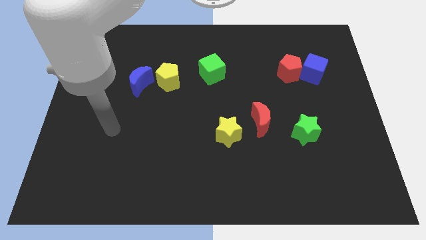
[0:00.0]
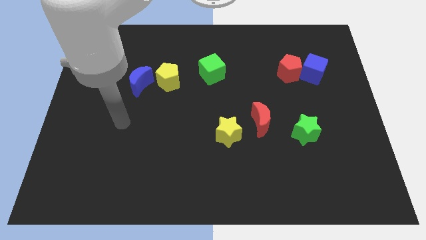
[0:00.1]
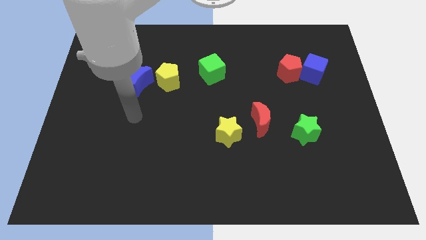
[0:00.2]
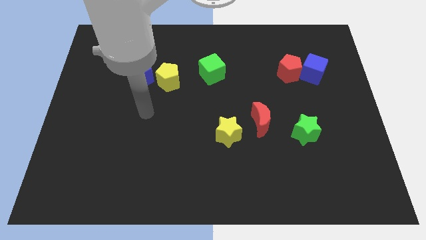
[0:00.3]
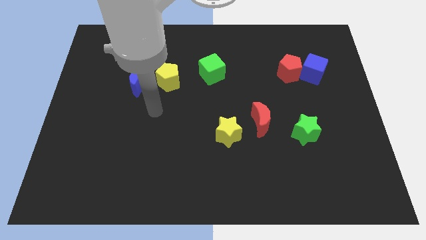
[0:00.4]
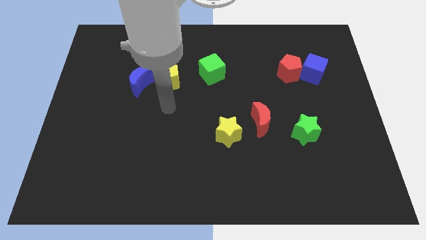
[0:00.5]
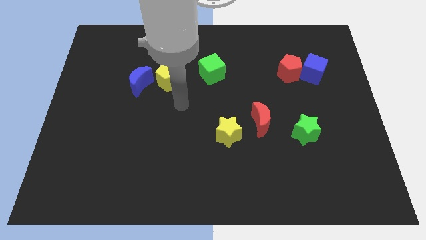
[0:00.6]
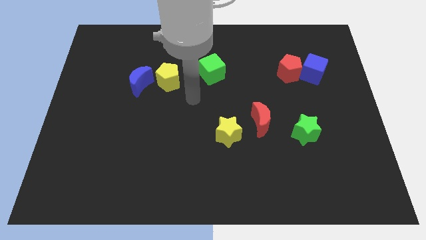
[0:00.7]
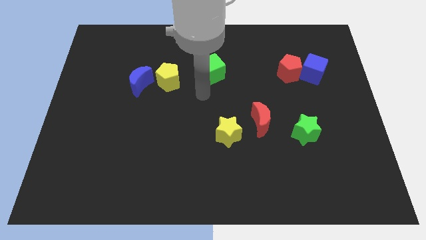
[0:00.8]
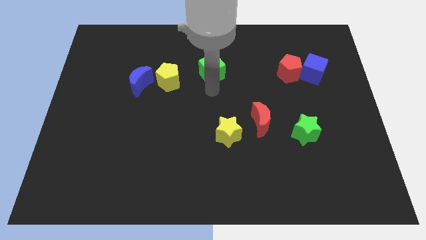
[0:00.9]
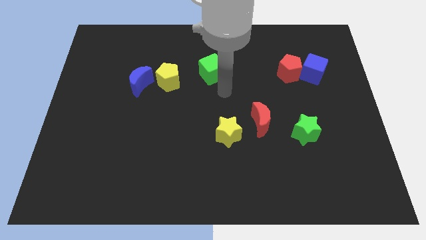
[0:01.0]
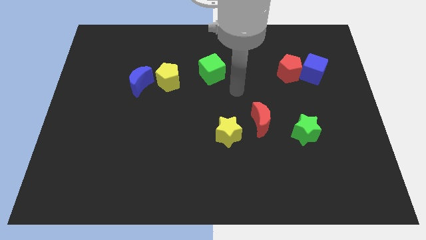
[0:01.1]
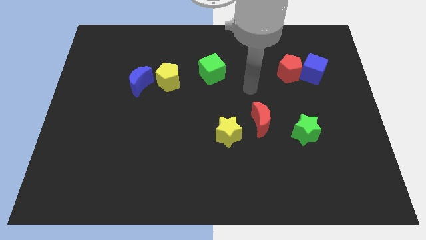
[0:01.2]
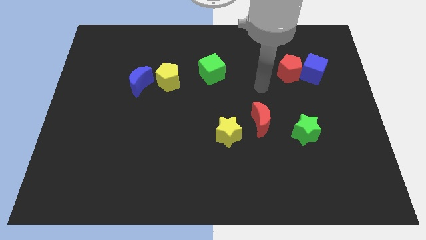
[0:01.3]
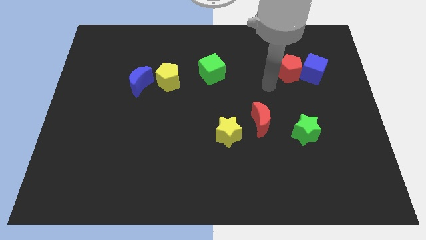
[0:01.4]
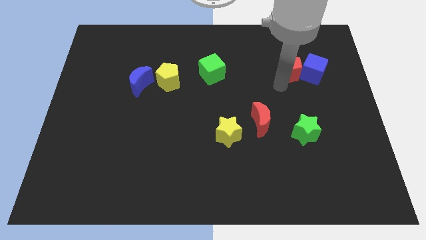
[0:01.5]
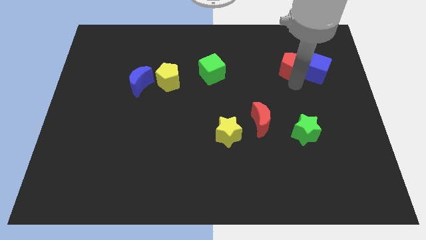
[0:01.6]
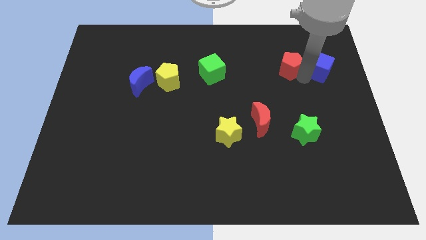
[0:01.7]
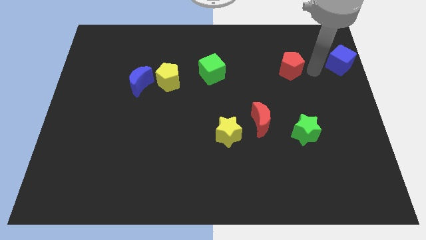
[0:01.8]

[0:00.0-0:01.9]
pull the red pentagon apart from the blue cube

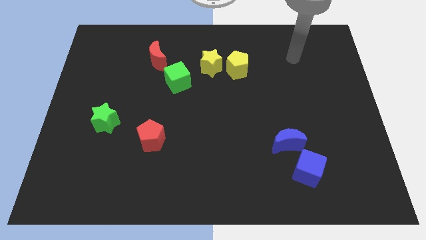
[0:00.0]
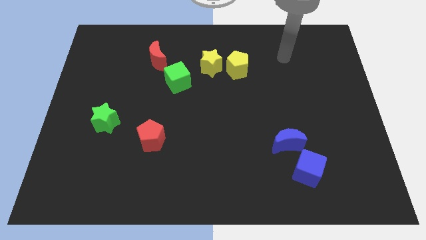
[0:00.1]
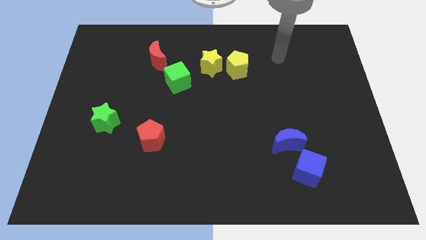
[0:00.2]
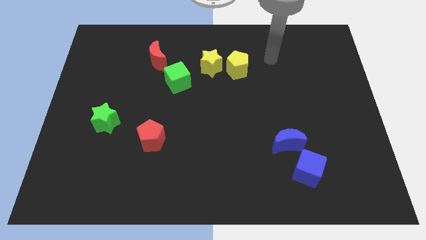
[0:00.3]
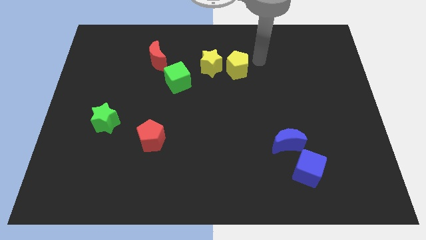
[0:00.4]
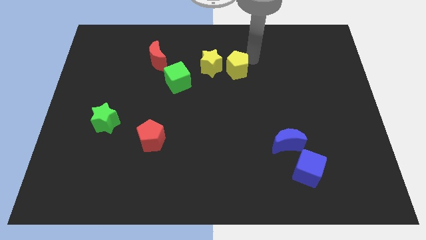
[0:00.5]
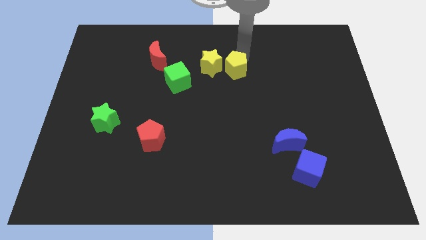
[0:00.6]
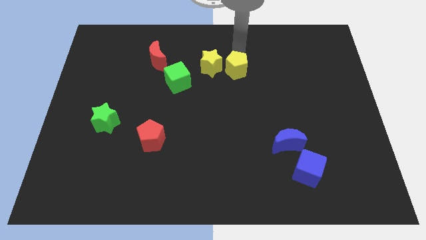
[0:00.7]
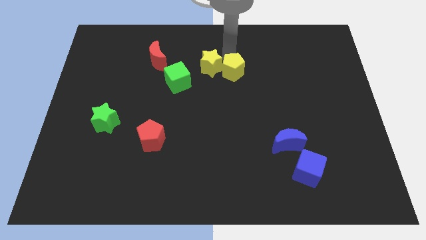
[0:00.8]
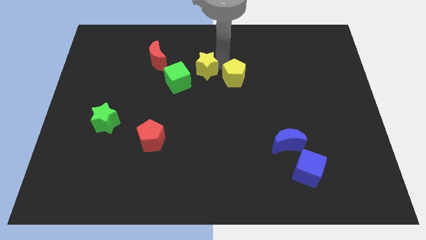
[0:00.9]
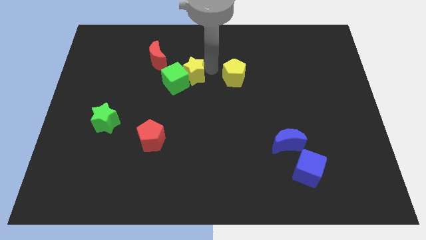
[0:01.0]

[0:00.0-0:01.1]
move the yellow pentagon away from the yellow star

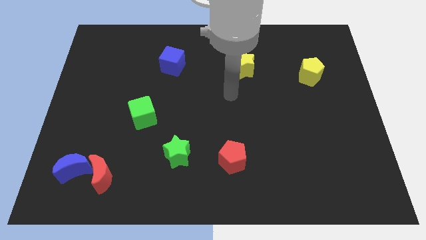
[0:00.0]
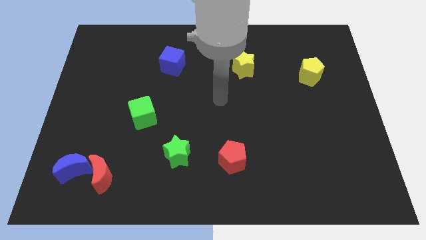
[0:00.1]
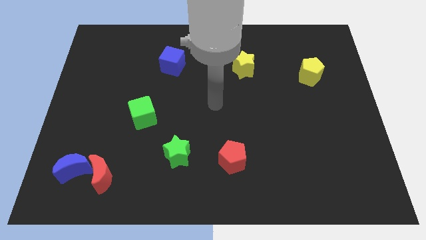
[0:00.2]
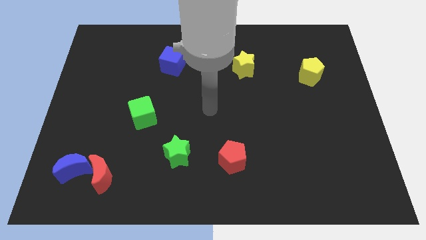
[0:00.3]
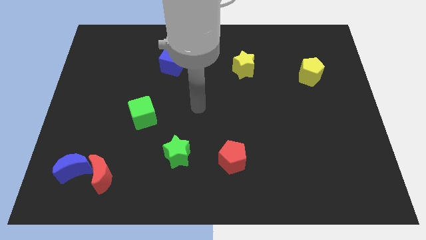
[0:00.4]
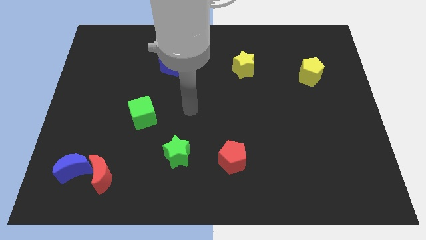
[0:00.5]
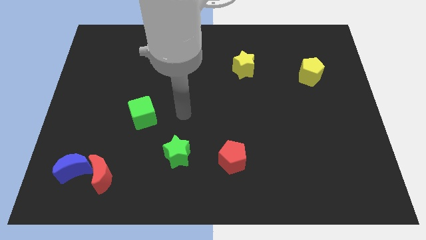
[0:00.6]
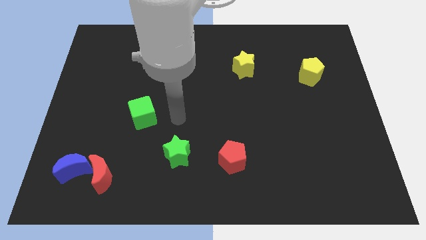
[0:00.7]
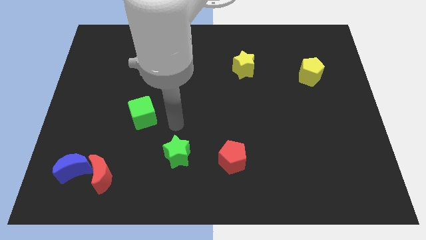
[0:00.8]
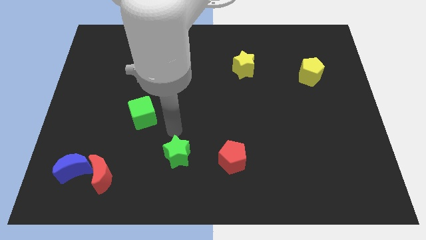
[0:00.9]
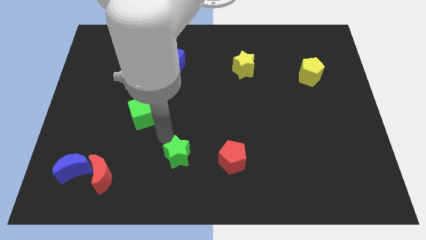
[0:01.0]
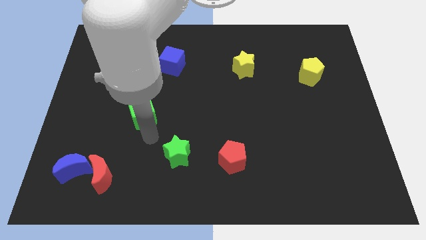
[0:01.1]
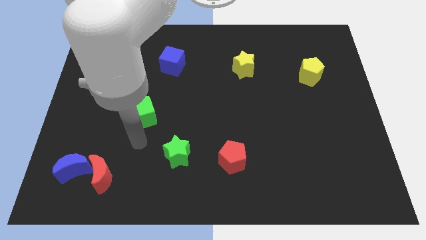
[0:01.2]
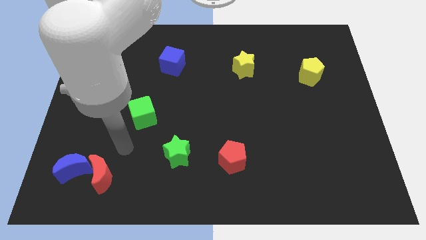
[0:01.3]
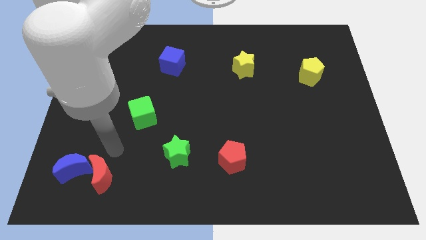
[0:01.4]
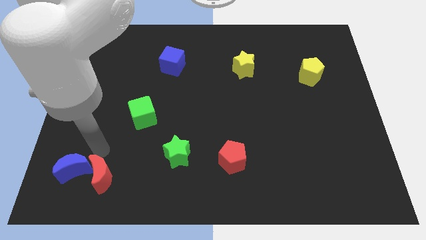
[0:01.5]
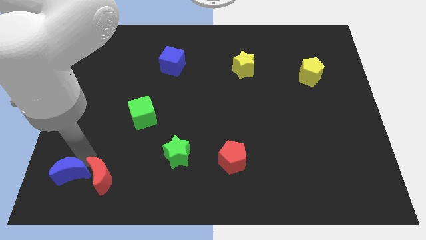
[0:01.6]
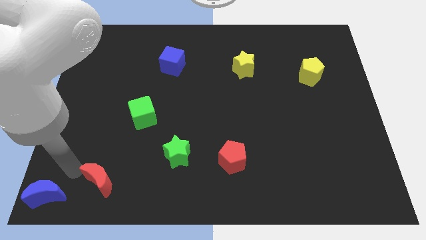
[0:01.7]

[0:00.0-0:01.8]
separate the red moon from the blue moon

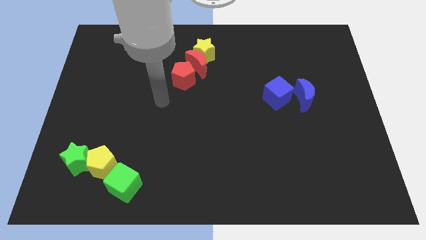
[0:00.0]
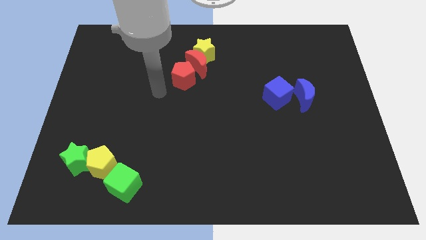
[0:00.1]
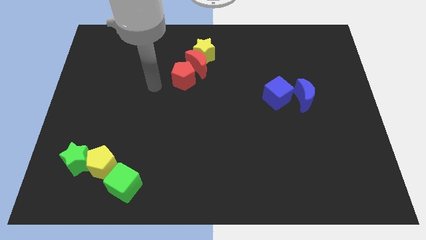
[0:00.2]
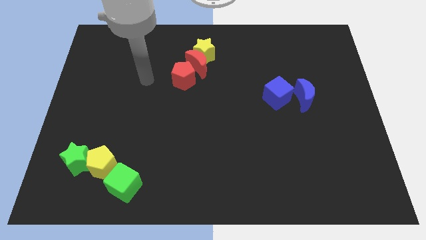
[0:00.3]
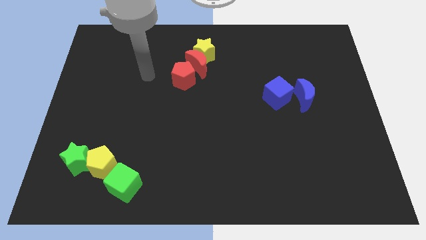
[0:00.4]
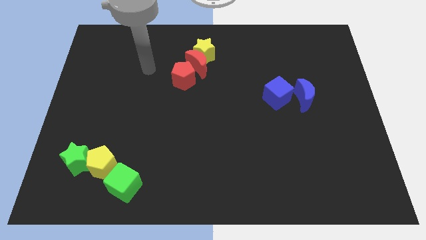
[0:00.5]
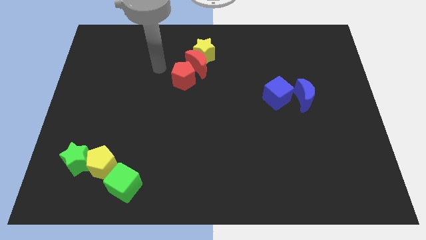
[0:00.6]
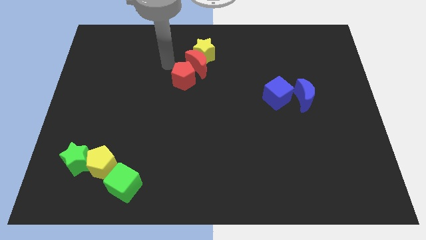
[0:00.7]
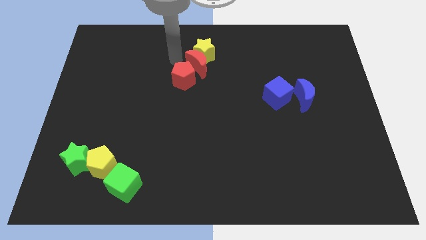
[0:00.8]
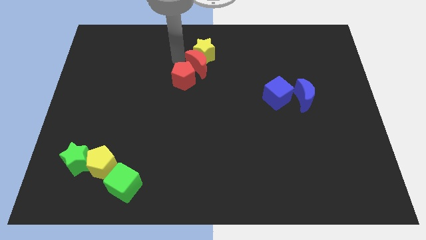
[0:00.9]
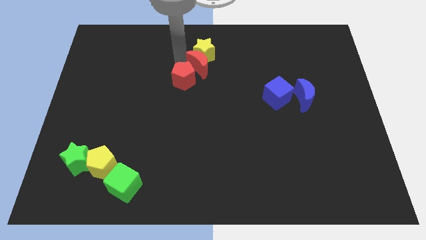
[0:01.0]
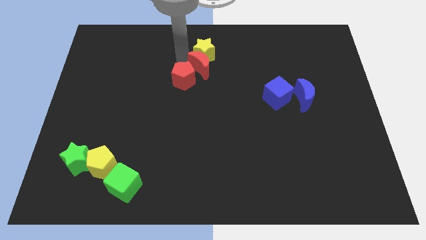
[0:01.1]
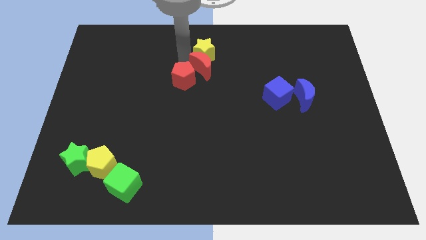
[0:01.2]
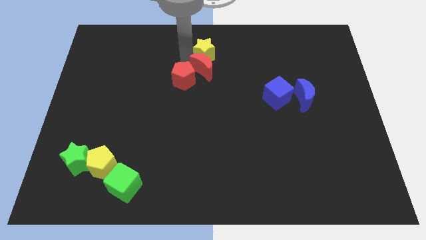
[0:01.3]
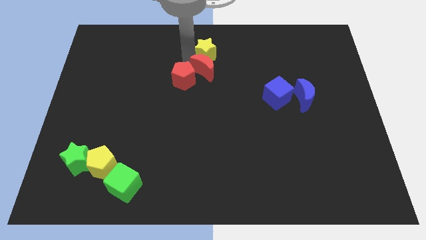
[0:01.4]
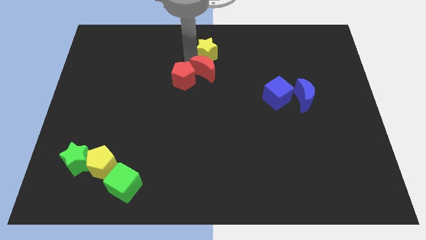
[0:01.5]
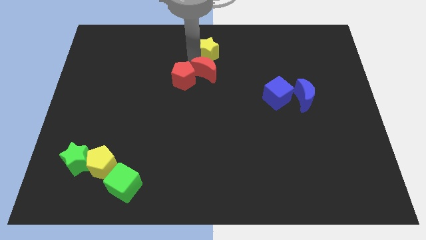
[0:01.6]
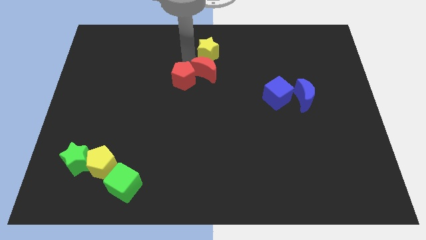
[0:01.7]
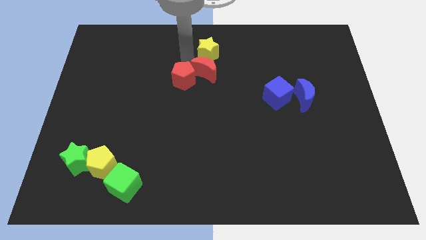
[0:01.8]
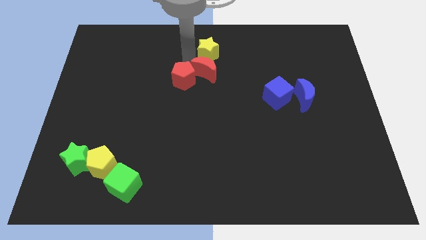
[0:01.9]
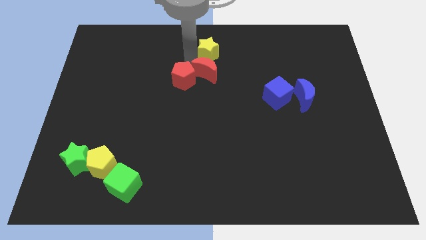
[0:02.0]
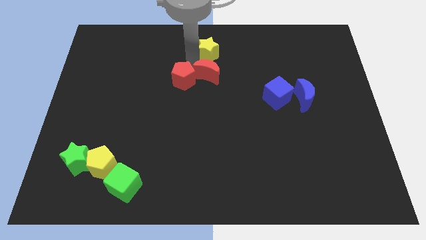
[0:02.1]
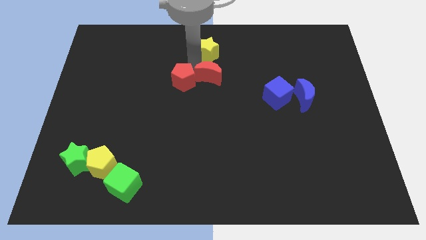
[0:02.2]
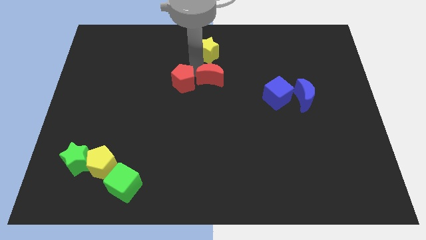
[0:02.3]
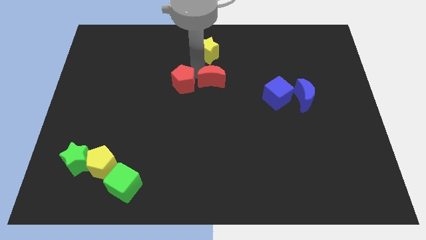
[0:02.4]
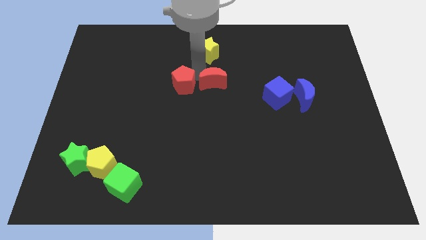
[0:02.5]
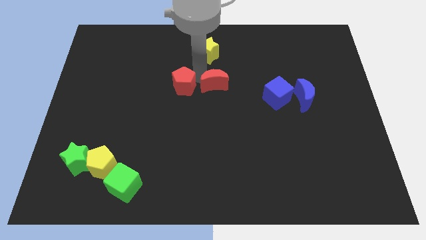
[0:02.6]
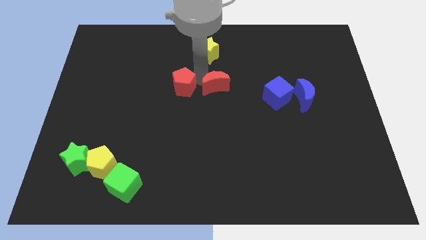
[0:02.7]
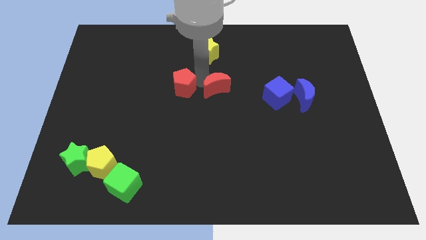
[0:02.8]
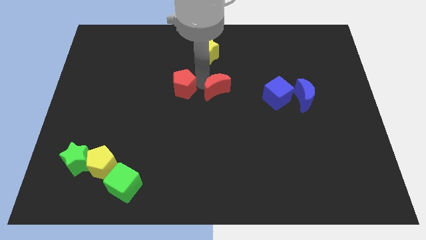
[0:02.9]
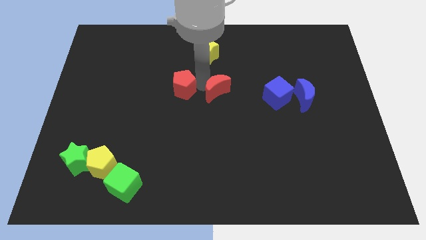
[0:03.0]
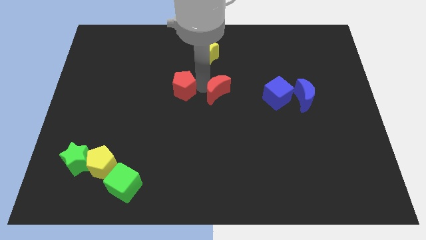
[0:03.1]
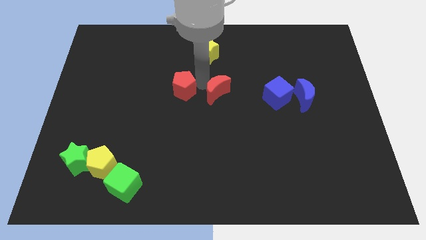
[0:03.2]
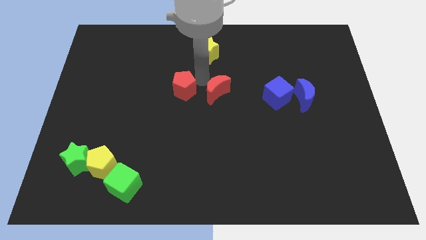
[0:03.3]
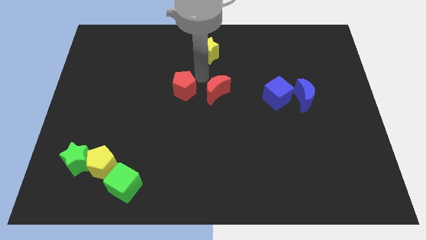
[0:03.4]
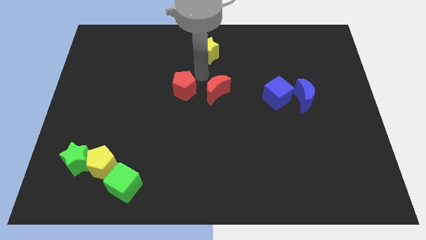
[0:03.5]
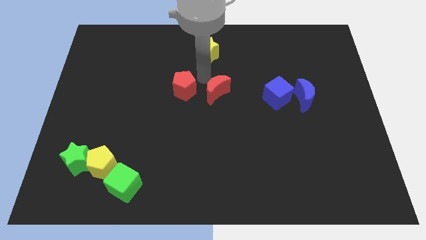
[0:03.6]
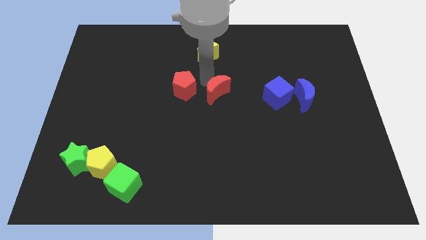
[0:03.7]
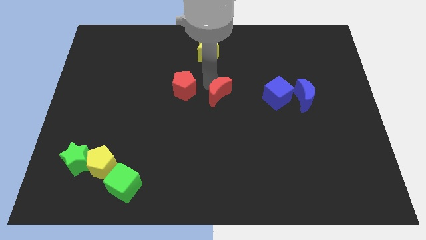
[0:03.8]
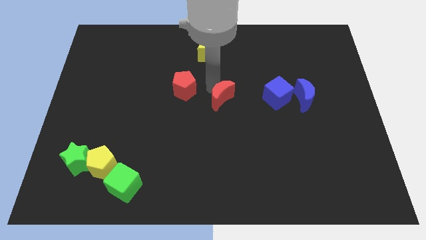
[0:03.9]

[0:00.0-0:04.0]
pull the red moon apart from the yellow star and red pentagon

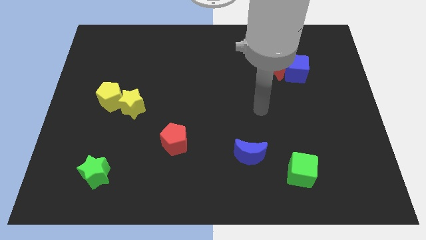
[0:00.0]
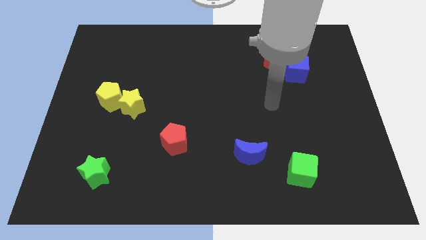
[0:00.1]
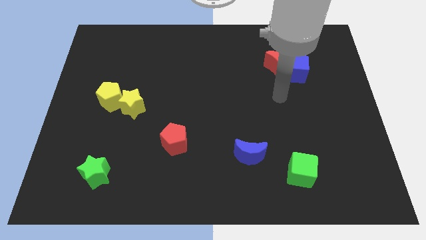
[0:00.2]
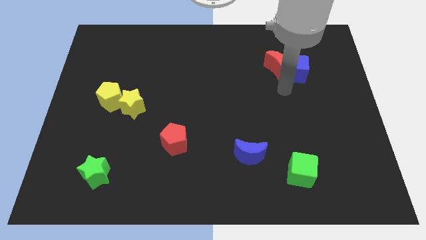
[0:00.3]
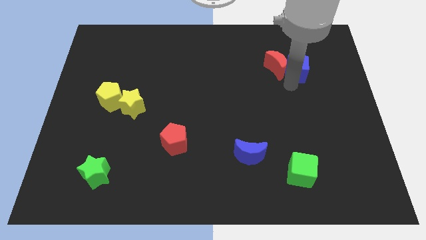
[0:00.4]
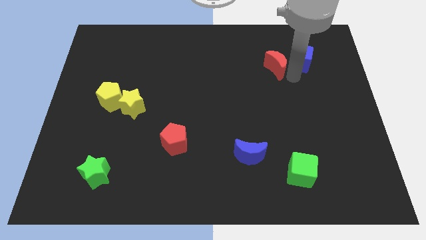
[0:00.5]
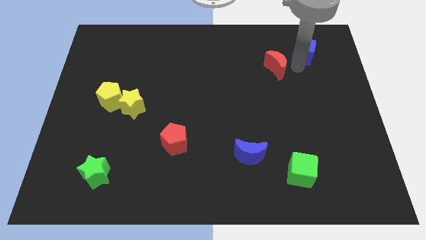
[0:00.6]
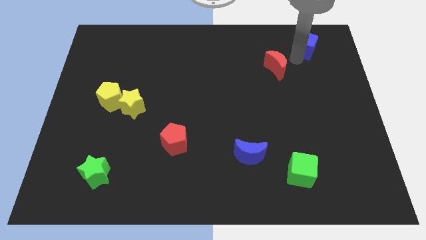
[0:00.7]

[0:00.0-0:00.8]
pull the red moon apart from the blue cube
